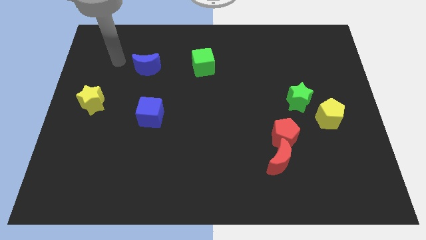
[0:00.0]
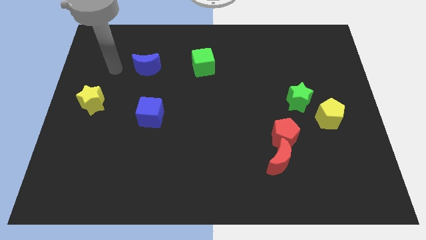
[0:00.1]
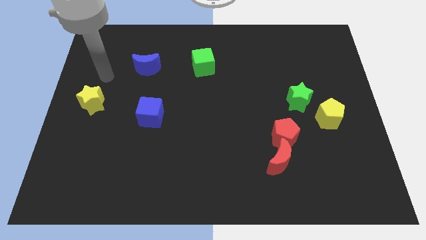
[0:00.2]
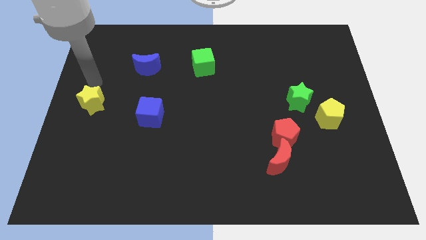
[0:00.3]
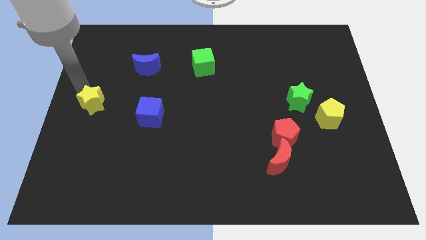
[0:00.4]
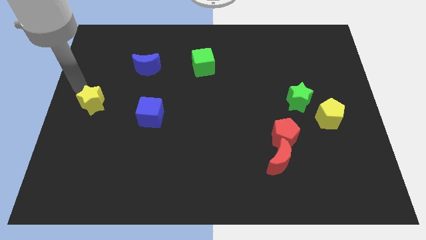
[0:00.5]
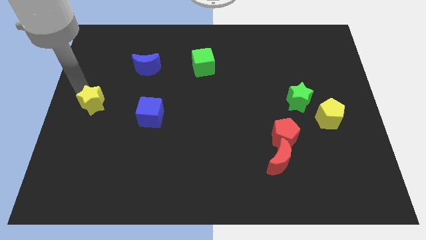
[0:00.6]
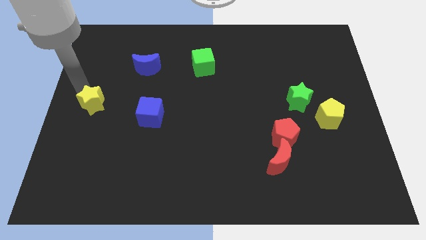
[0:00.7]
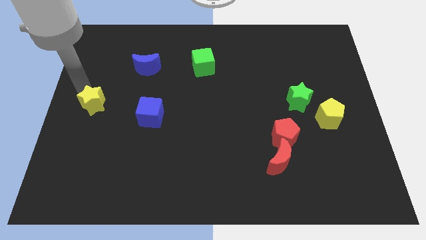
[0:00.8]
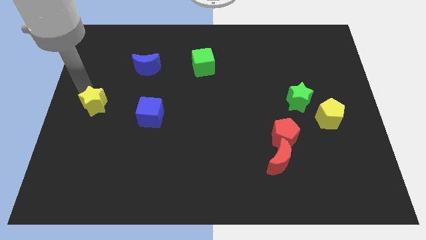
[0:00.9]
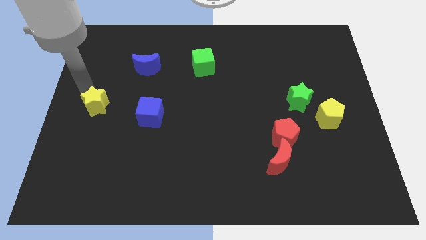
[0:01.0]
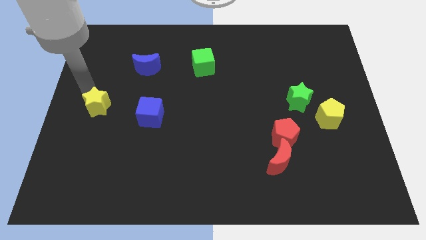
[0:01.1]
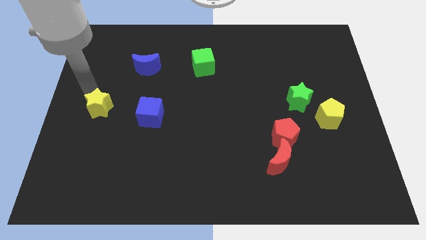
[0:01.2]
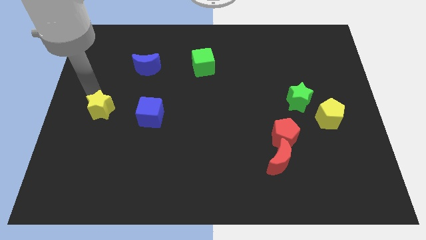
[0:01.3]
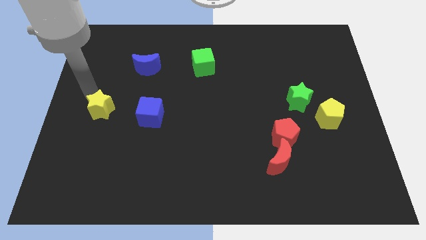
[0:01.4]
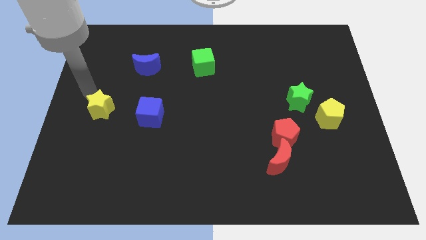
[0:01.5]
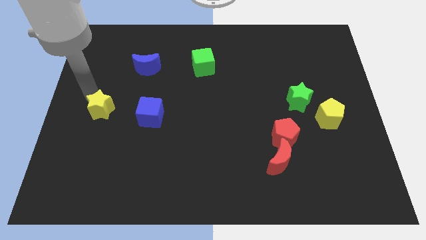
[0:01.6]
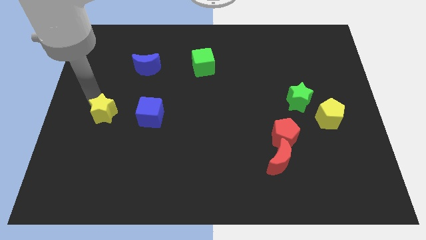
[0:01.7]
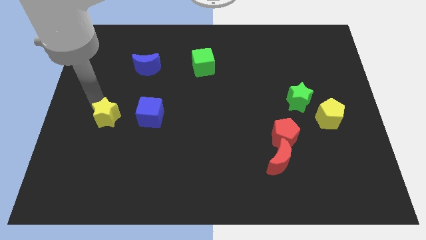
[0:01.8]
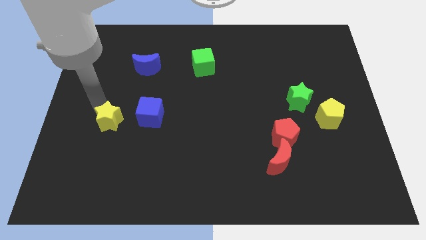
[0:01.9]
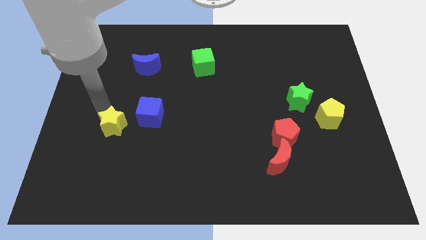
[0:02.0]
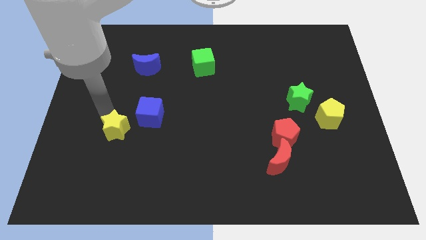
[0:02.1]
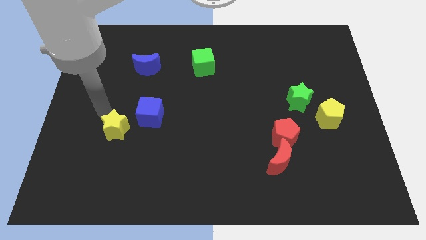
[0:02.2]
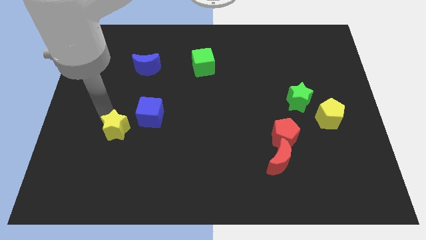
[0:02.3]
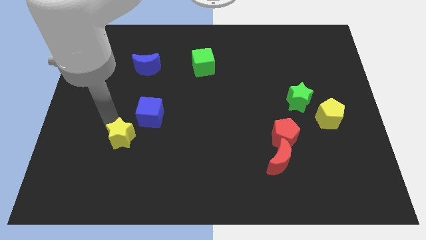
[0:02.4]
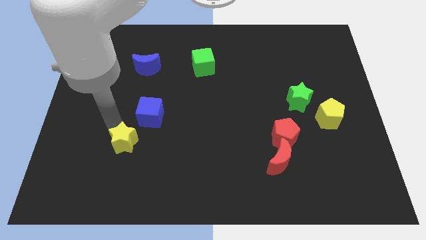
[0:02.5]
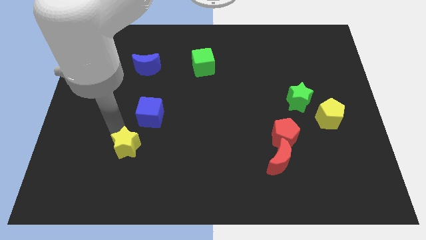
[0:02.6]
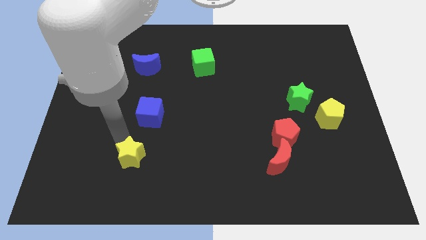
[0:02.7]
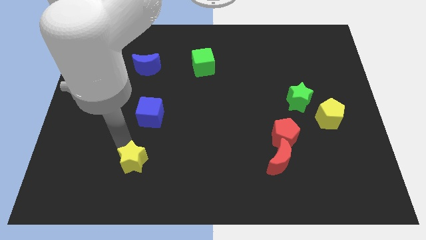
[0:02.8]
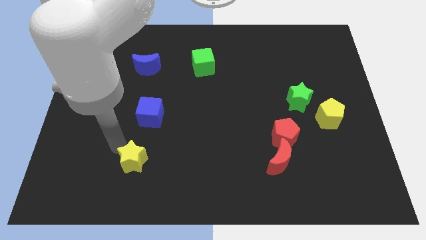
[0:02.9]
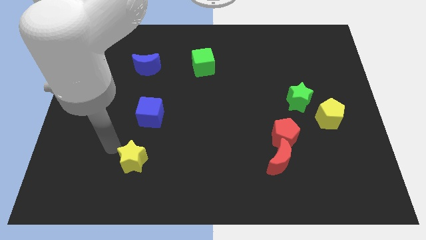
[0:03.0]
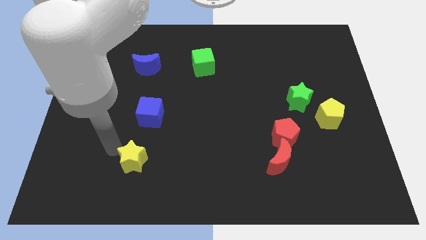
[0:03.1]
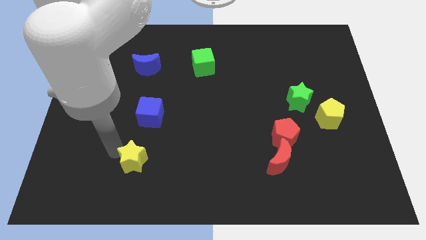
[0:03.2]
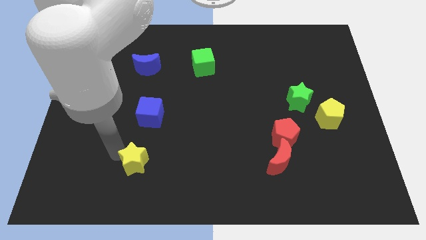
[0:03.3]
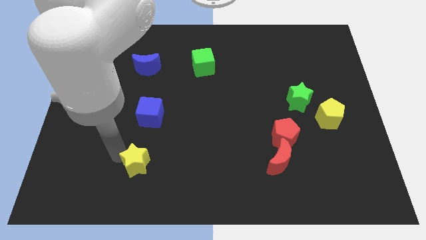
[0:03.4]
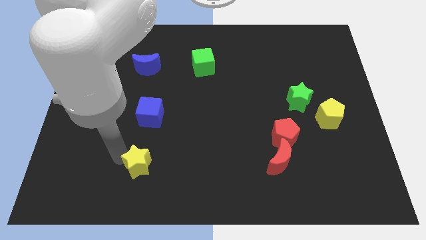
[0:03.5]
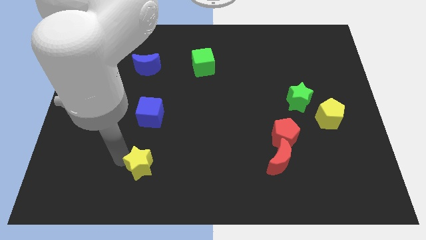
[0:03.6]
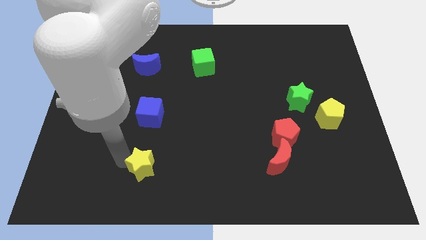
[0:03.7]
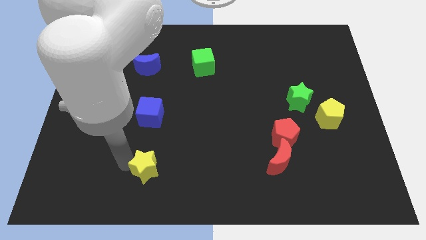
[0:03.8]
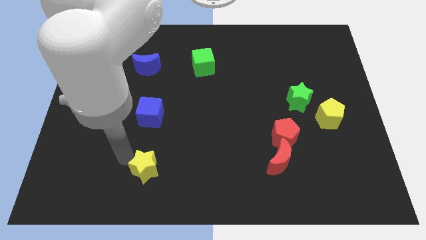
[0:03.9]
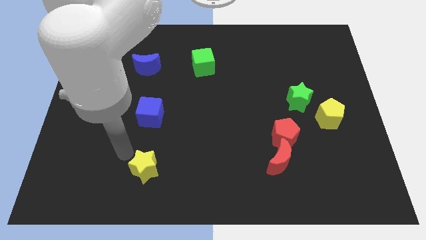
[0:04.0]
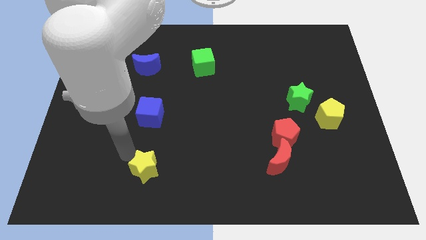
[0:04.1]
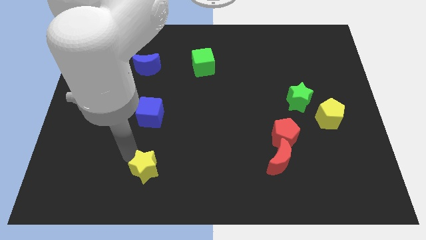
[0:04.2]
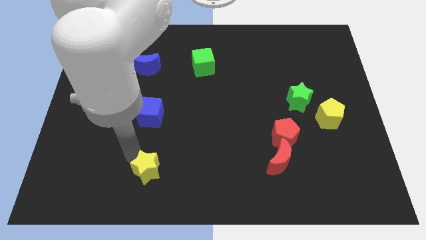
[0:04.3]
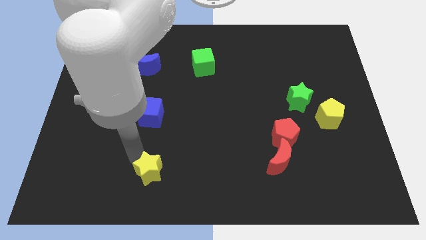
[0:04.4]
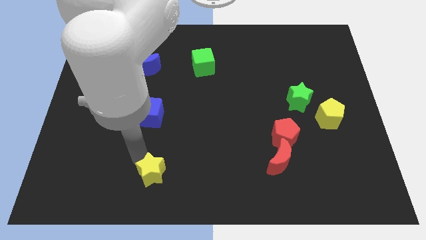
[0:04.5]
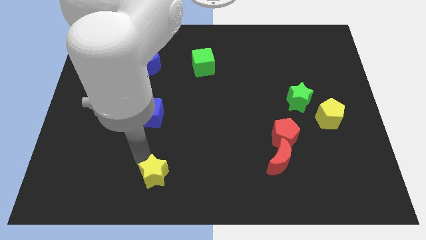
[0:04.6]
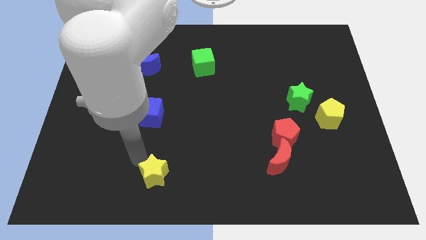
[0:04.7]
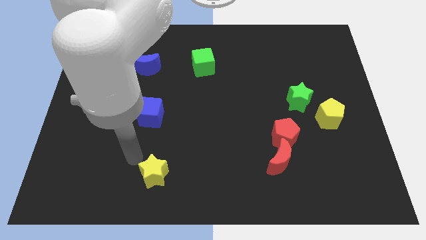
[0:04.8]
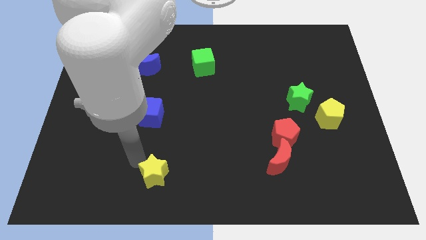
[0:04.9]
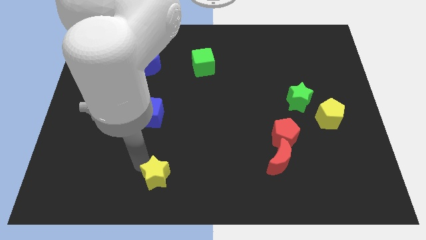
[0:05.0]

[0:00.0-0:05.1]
move the yellow star to the bottom

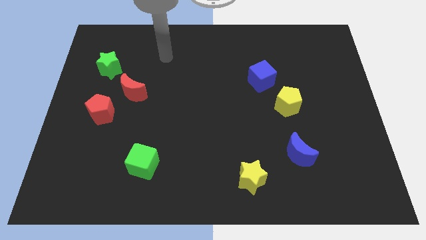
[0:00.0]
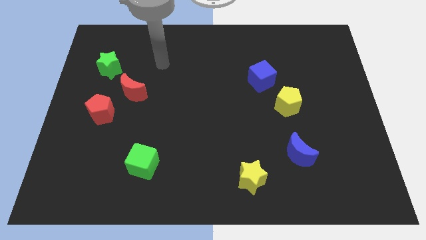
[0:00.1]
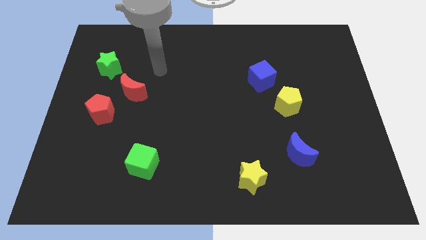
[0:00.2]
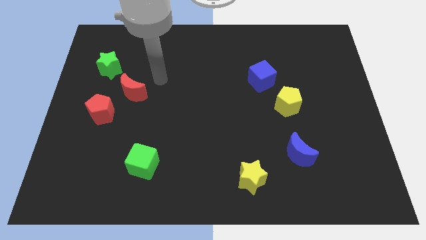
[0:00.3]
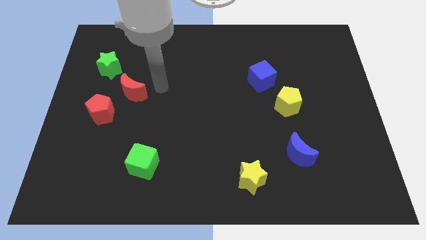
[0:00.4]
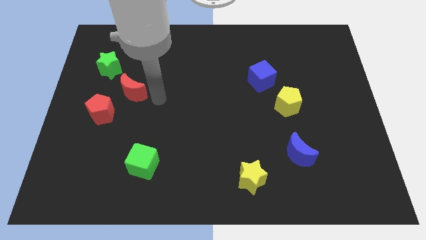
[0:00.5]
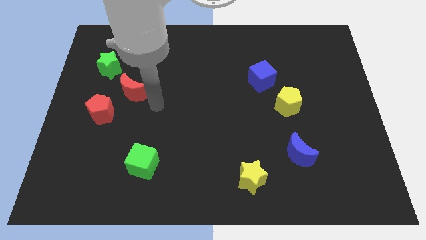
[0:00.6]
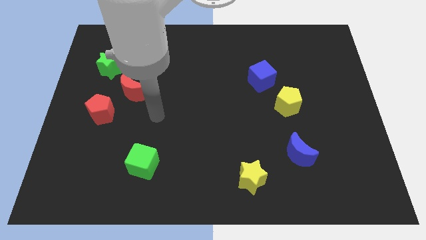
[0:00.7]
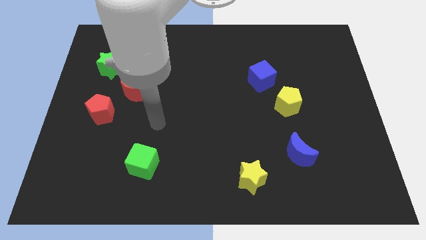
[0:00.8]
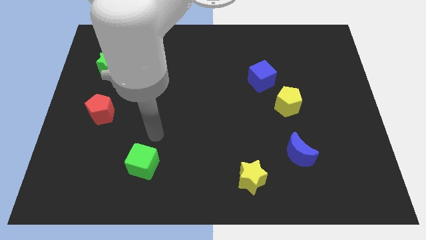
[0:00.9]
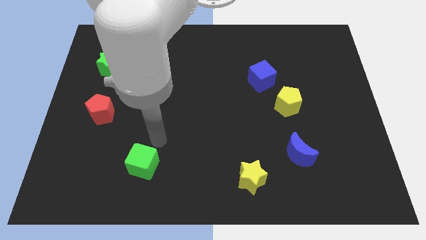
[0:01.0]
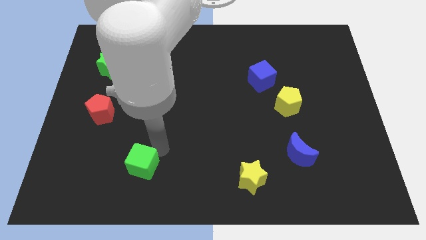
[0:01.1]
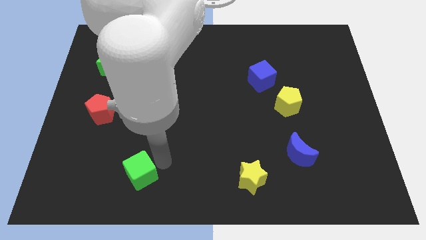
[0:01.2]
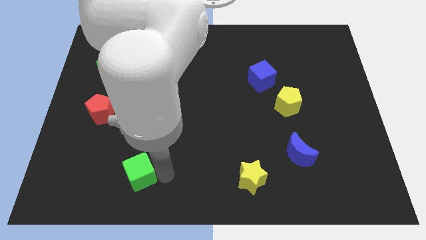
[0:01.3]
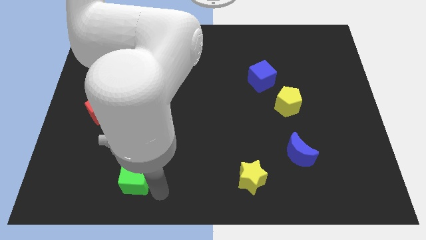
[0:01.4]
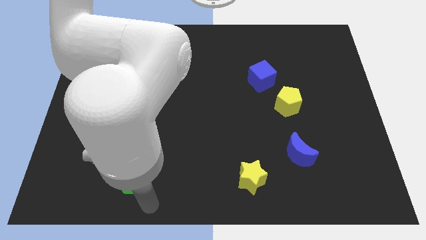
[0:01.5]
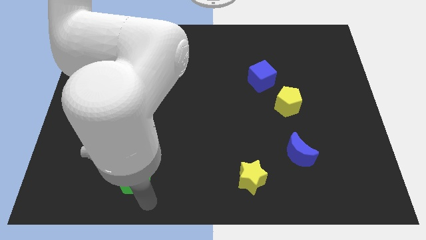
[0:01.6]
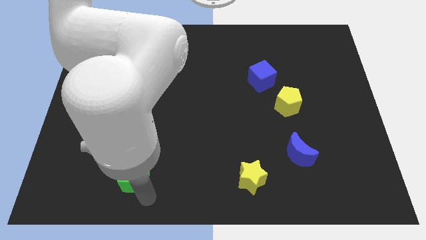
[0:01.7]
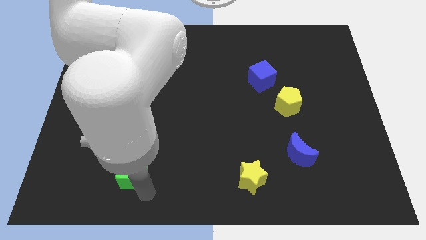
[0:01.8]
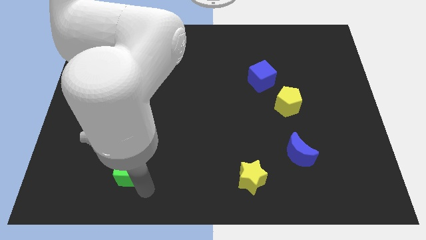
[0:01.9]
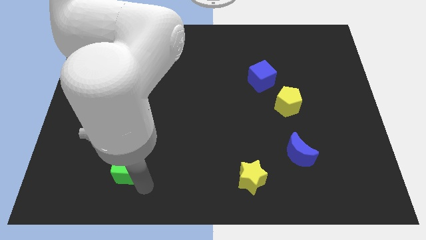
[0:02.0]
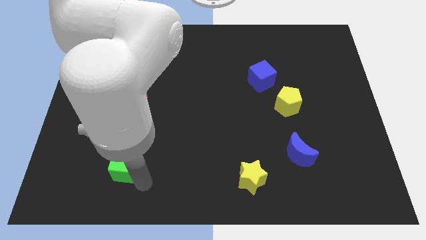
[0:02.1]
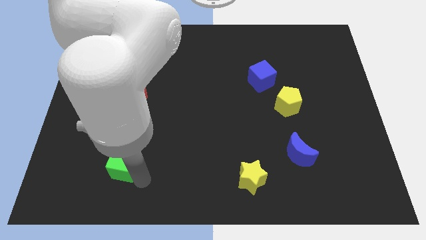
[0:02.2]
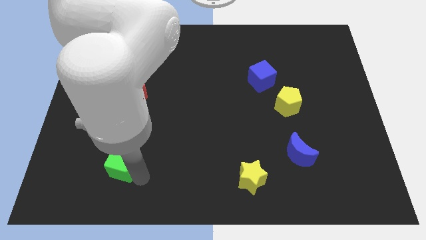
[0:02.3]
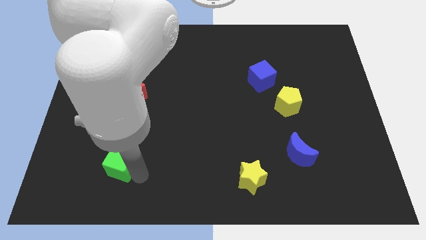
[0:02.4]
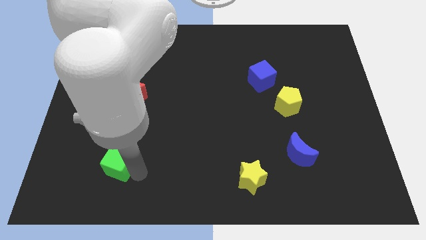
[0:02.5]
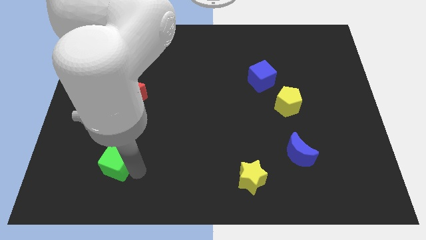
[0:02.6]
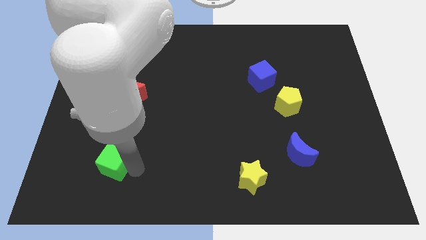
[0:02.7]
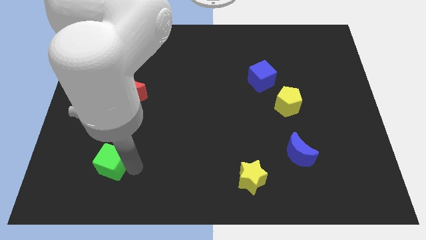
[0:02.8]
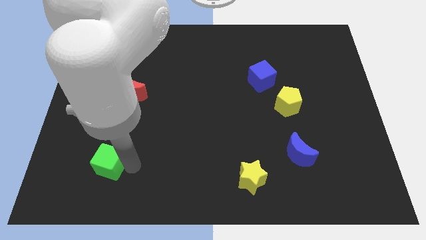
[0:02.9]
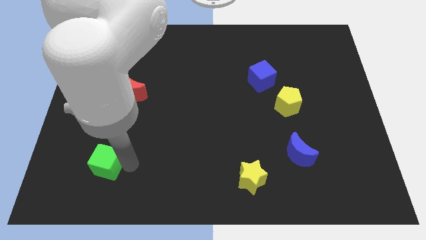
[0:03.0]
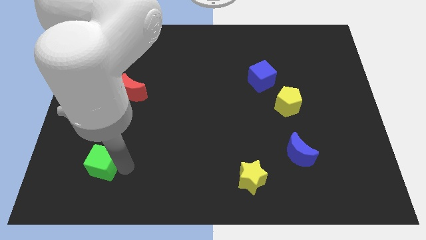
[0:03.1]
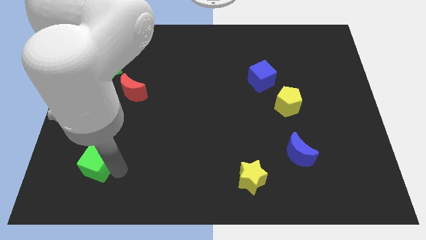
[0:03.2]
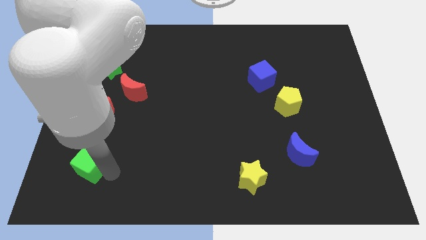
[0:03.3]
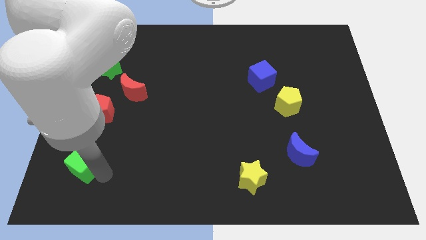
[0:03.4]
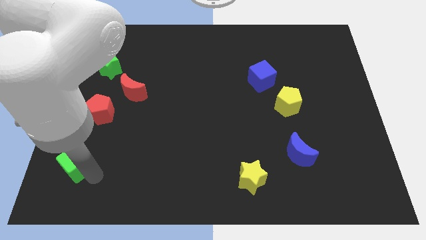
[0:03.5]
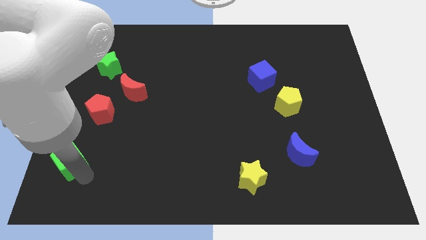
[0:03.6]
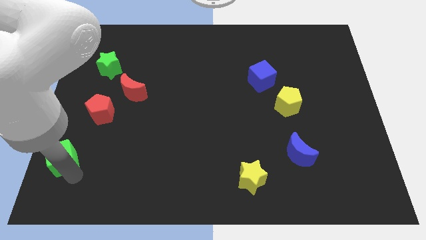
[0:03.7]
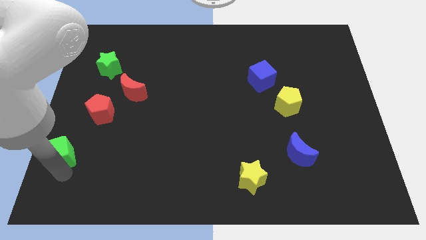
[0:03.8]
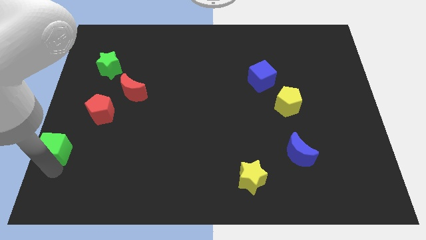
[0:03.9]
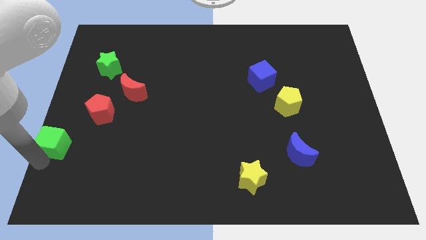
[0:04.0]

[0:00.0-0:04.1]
move the green cube to the left side of the board
